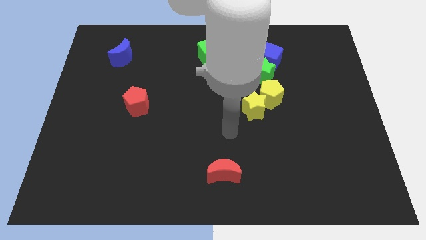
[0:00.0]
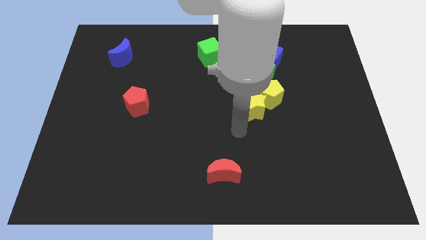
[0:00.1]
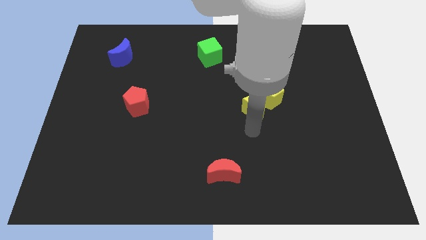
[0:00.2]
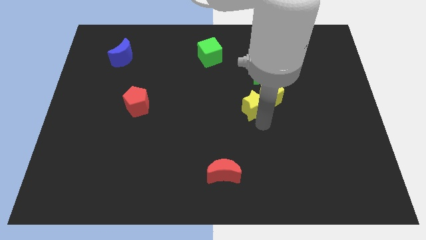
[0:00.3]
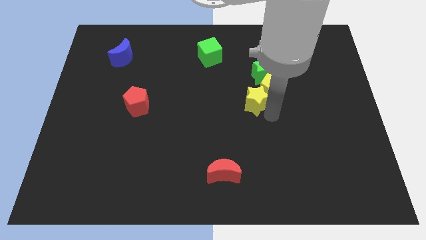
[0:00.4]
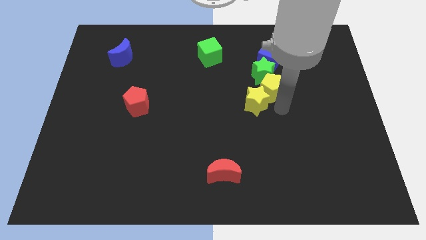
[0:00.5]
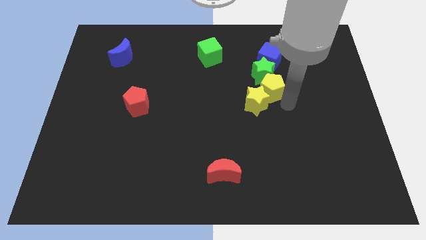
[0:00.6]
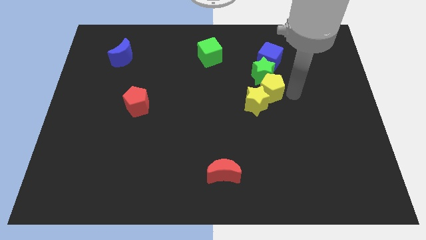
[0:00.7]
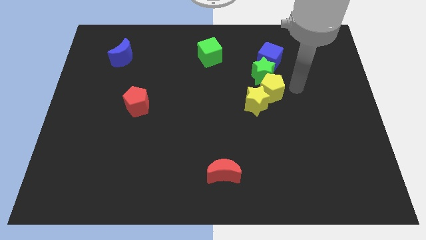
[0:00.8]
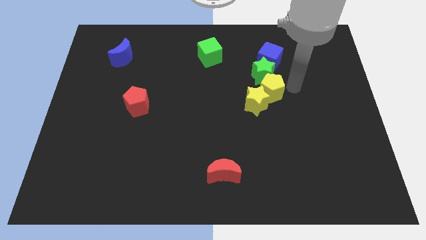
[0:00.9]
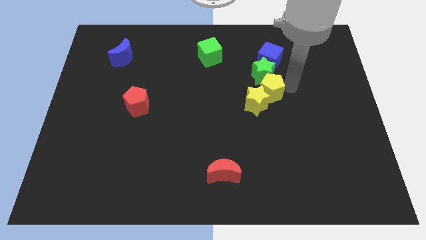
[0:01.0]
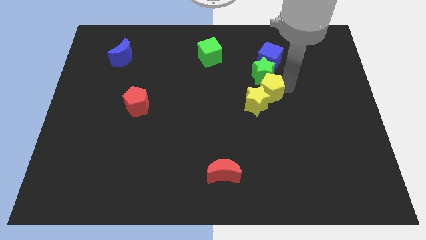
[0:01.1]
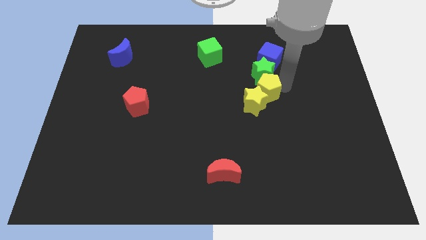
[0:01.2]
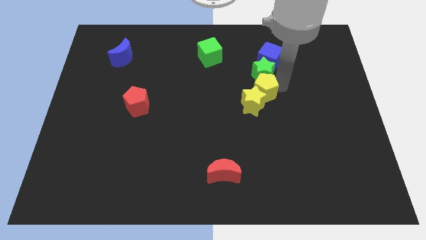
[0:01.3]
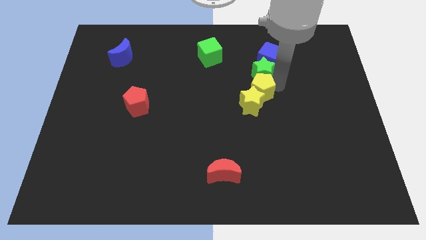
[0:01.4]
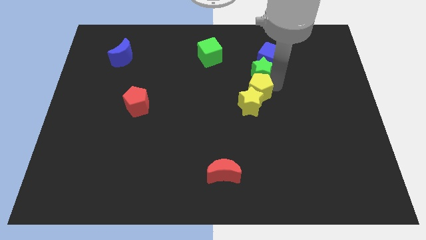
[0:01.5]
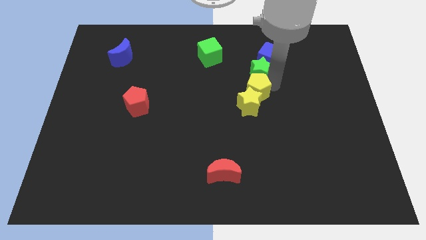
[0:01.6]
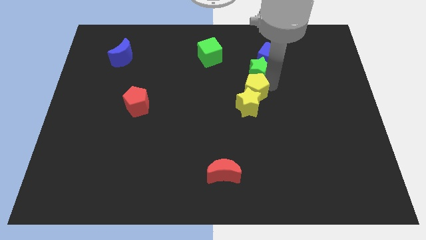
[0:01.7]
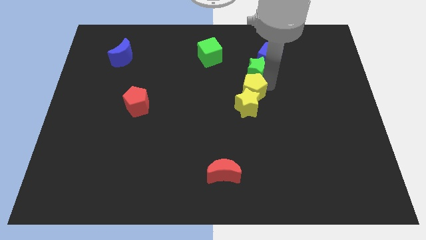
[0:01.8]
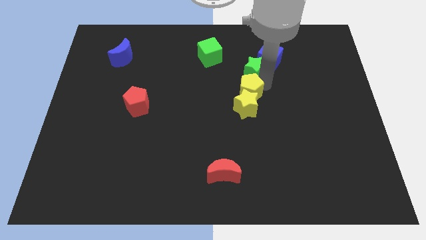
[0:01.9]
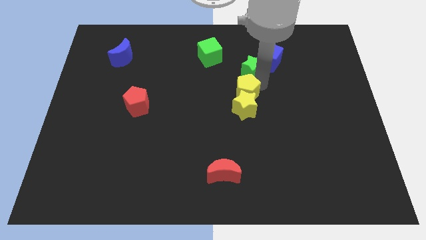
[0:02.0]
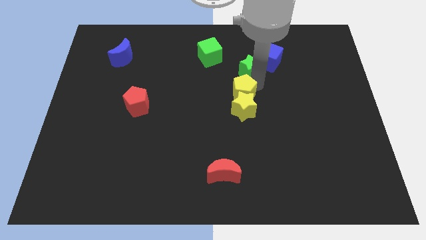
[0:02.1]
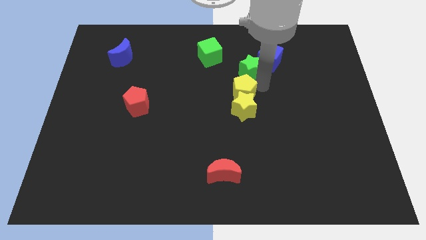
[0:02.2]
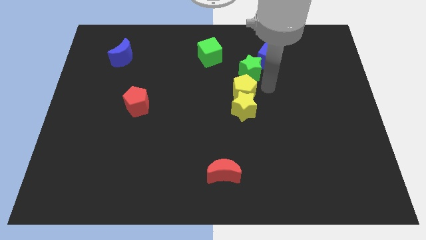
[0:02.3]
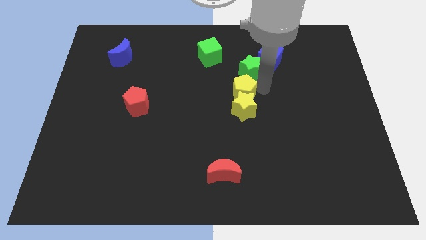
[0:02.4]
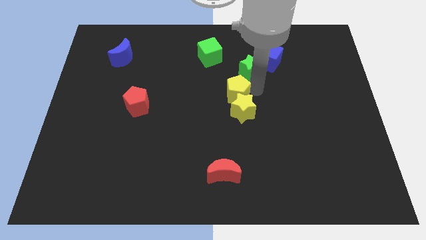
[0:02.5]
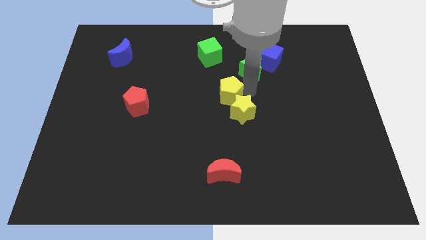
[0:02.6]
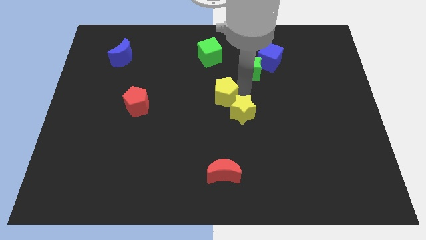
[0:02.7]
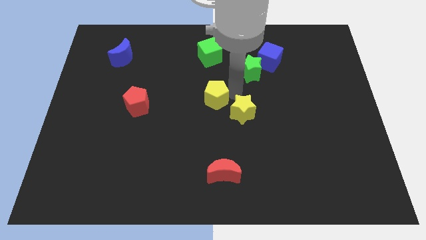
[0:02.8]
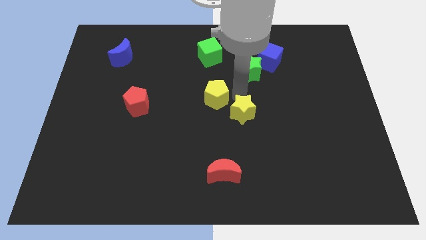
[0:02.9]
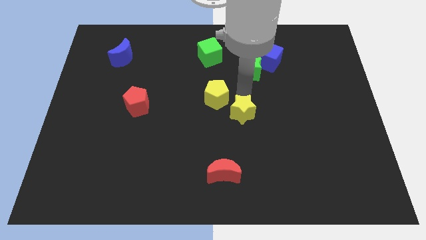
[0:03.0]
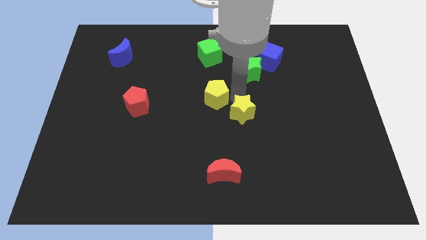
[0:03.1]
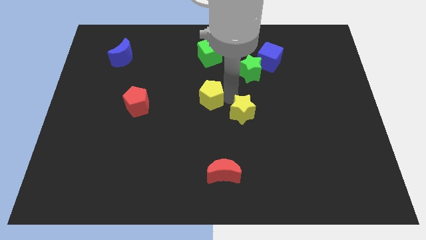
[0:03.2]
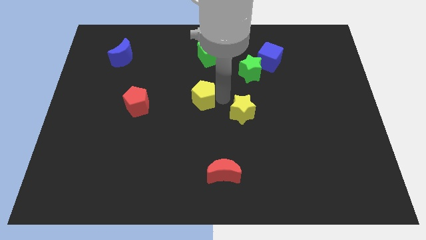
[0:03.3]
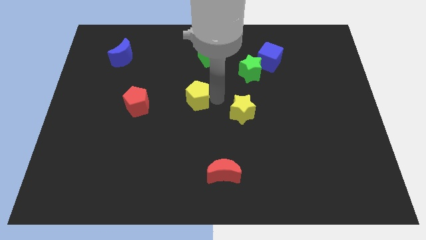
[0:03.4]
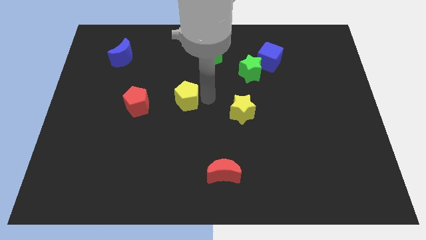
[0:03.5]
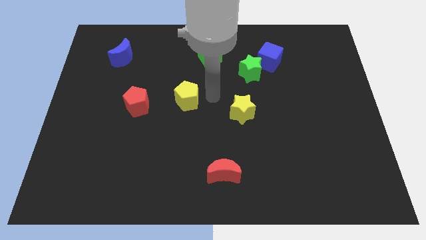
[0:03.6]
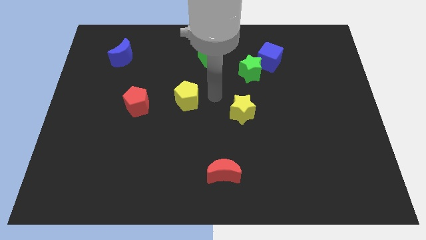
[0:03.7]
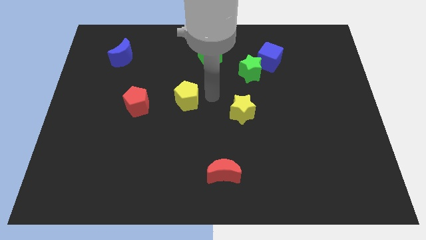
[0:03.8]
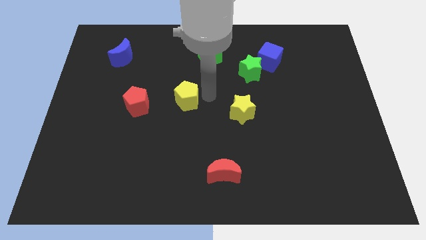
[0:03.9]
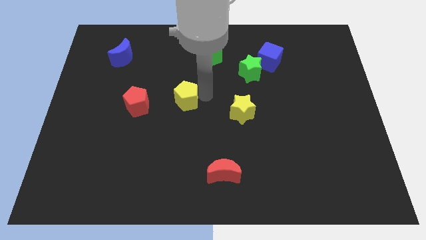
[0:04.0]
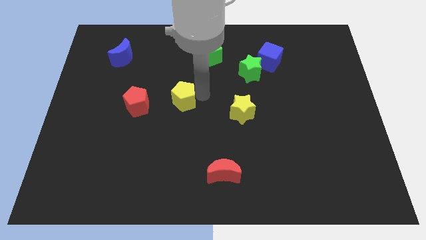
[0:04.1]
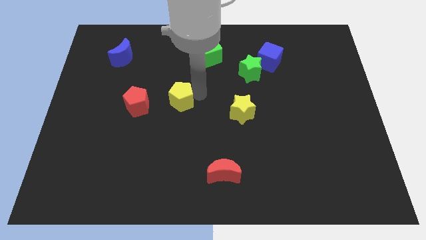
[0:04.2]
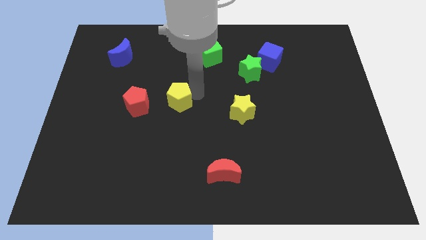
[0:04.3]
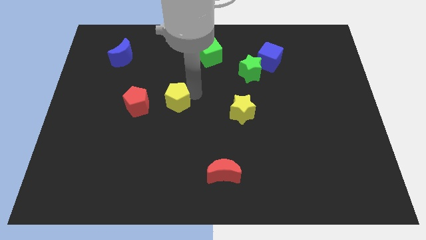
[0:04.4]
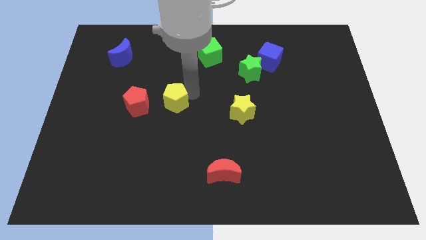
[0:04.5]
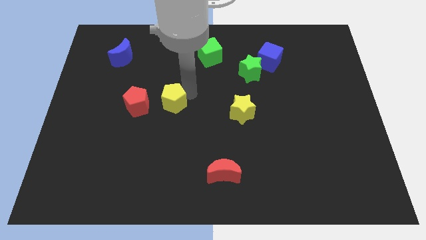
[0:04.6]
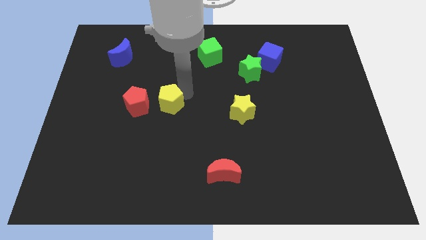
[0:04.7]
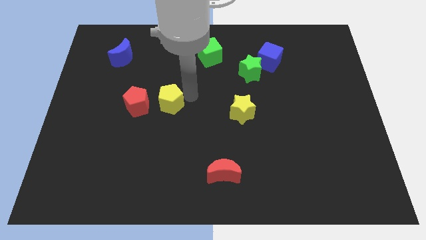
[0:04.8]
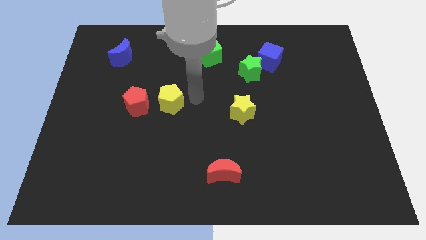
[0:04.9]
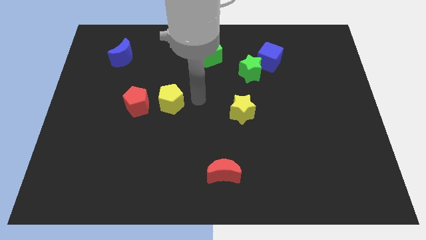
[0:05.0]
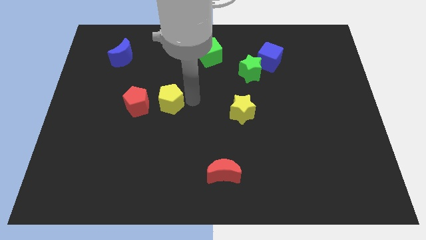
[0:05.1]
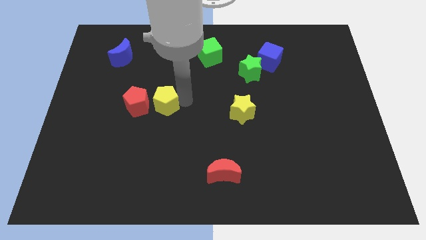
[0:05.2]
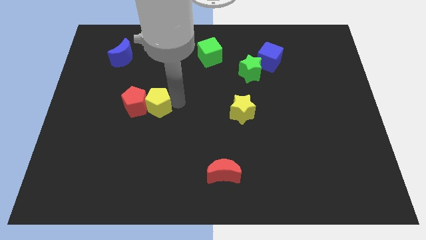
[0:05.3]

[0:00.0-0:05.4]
move the yellow pentagon close to the red pentagon

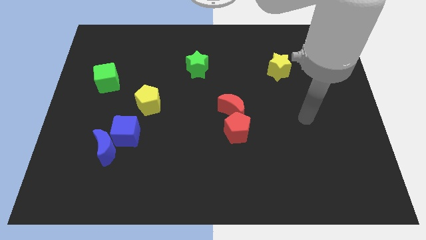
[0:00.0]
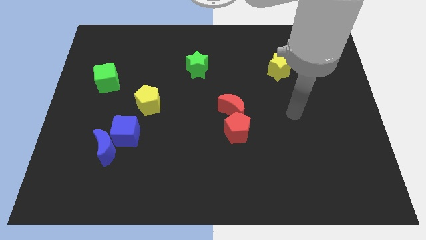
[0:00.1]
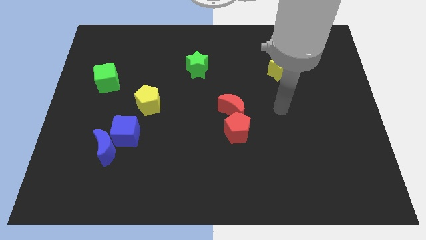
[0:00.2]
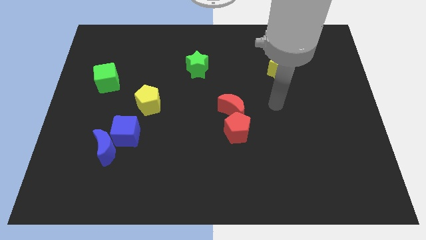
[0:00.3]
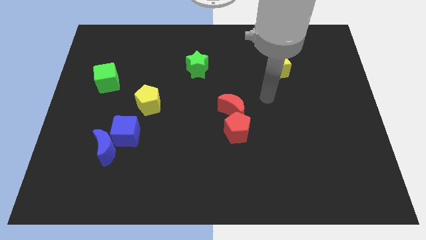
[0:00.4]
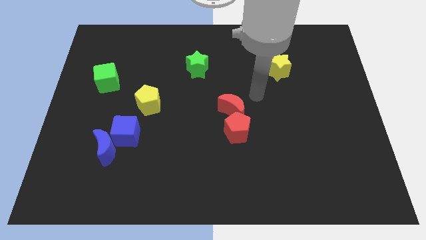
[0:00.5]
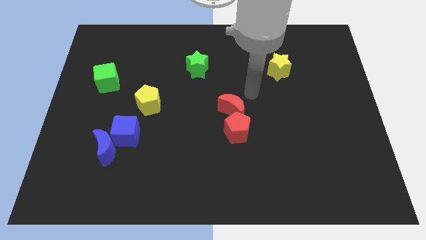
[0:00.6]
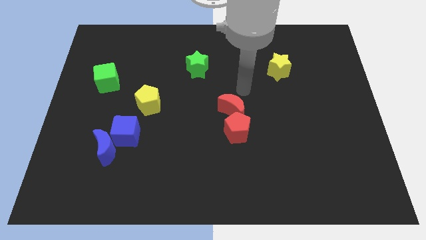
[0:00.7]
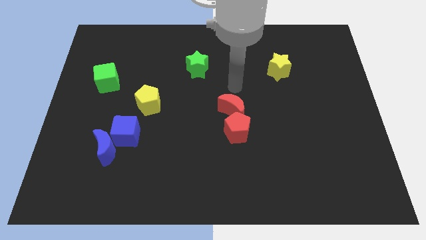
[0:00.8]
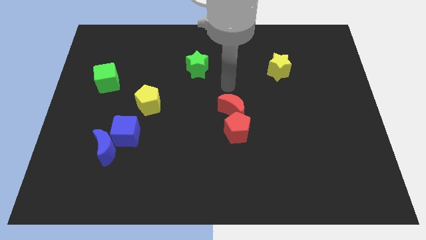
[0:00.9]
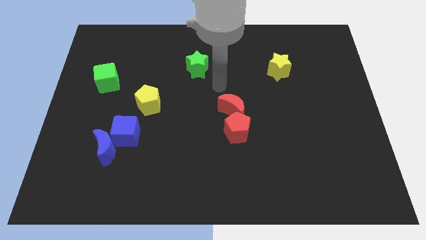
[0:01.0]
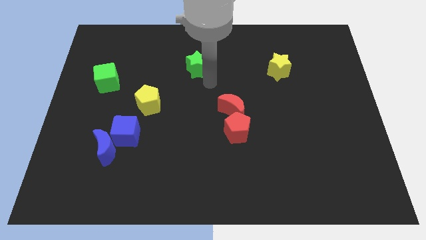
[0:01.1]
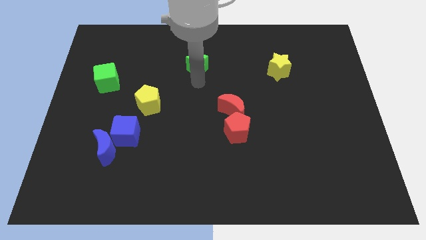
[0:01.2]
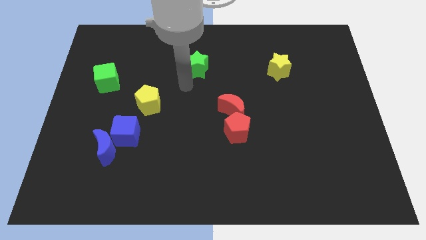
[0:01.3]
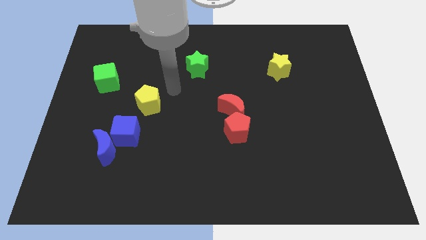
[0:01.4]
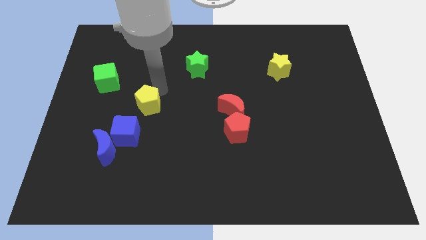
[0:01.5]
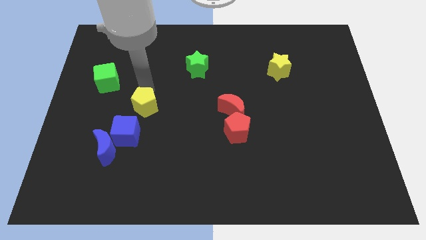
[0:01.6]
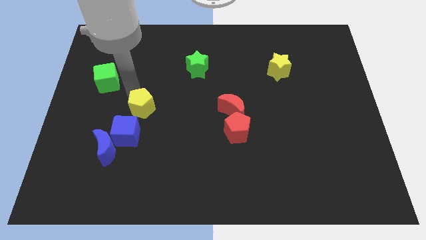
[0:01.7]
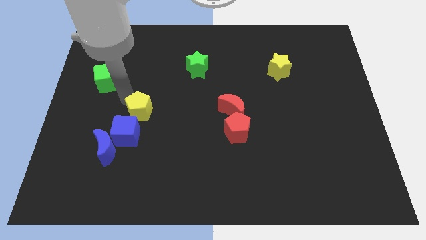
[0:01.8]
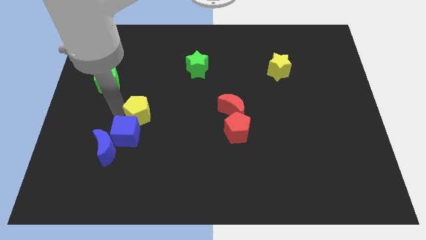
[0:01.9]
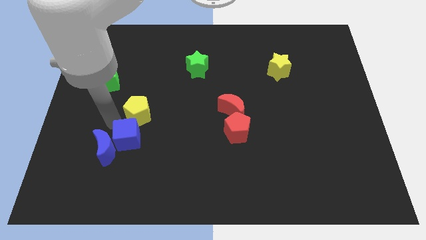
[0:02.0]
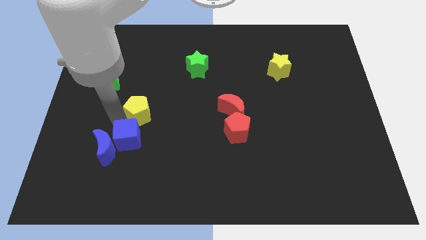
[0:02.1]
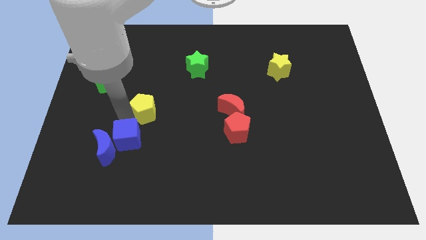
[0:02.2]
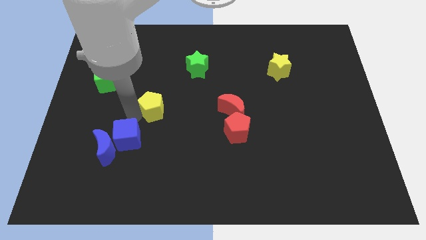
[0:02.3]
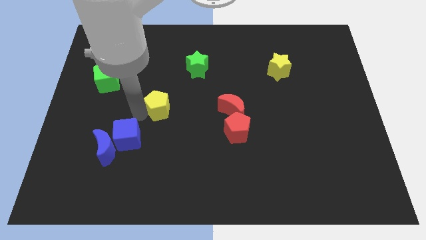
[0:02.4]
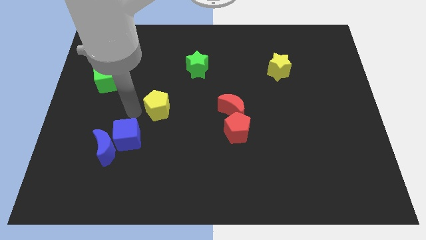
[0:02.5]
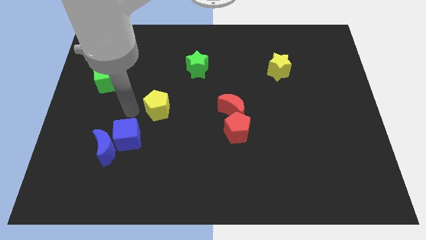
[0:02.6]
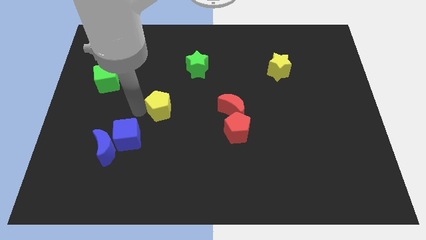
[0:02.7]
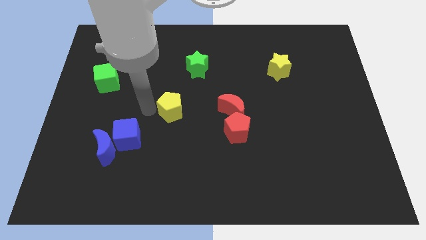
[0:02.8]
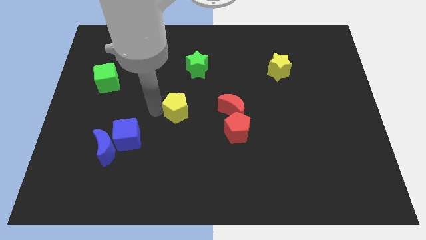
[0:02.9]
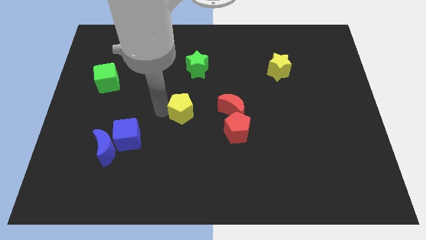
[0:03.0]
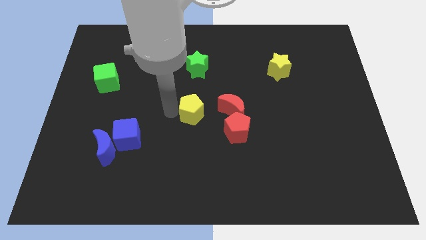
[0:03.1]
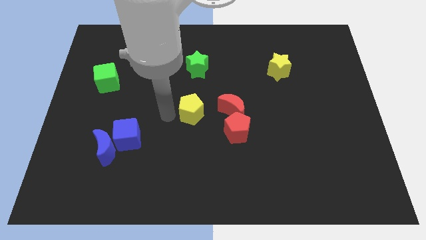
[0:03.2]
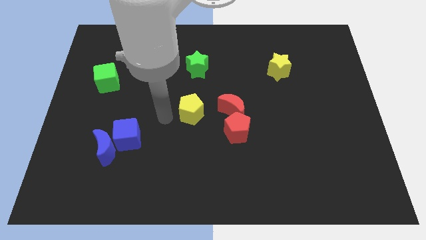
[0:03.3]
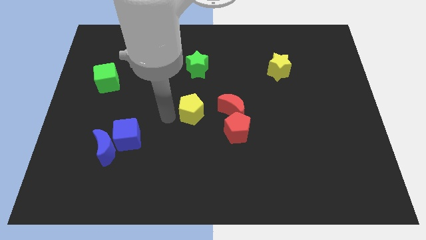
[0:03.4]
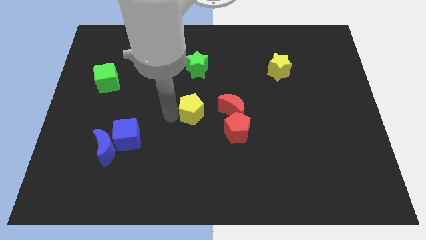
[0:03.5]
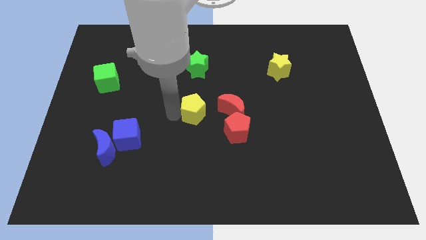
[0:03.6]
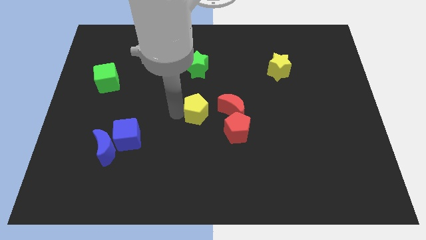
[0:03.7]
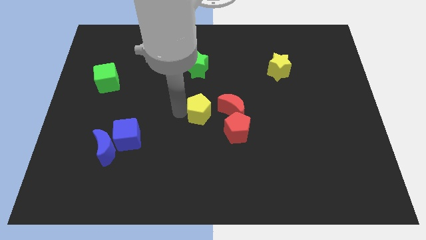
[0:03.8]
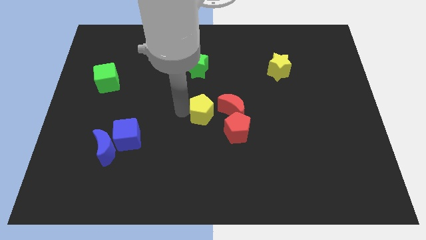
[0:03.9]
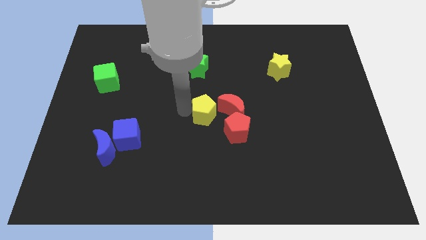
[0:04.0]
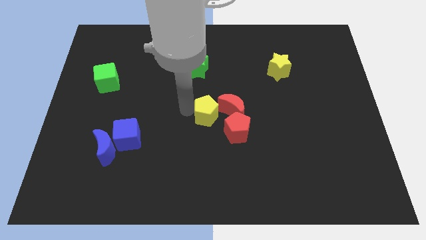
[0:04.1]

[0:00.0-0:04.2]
move the yellow pentagon close to the red moon
